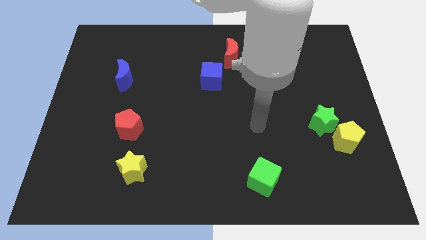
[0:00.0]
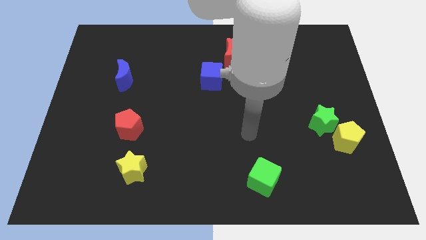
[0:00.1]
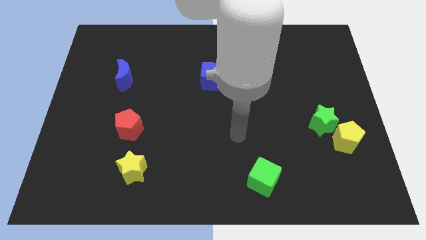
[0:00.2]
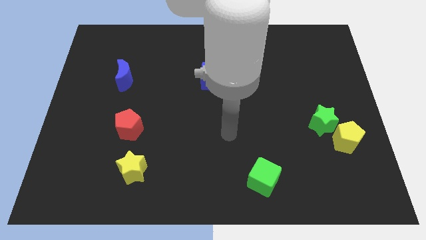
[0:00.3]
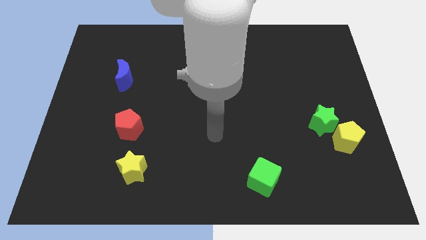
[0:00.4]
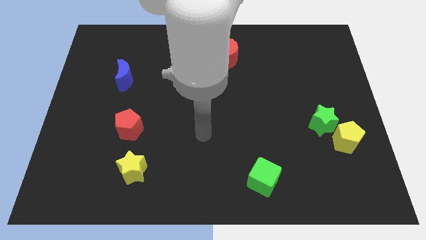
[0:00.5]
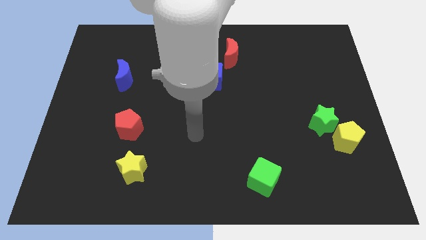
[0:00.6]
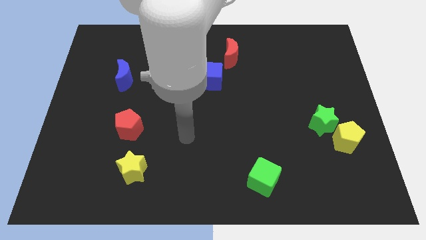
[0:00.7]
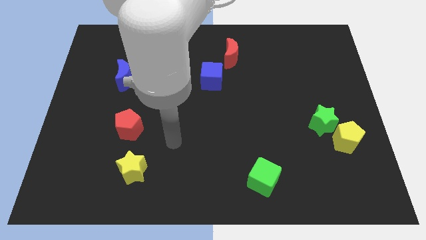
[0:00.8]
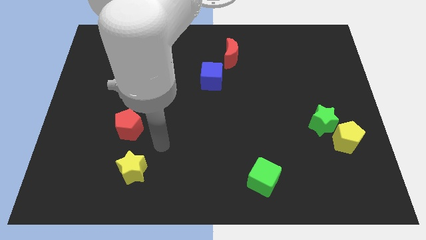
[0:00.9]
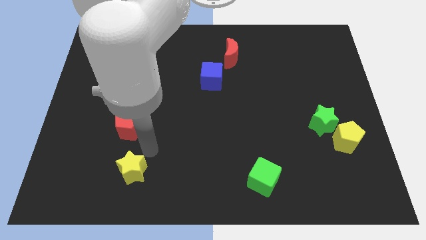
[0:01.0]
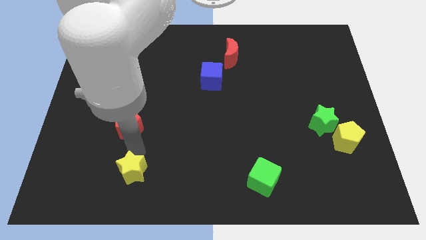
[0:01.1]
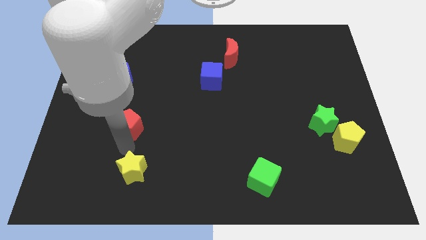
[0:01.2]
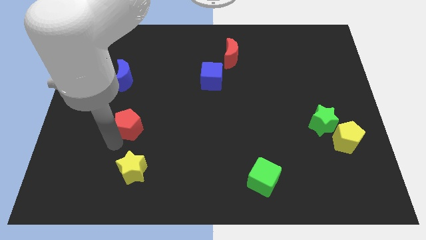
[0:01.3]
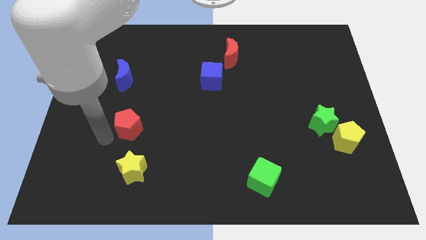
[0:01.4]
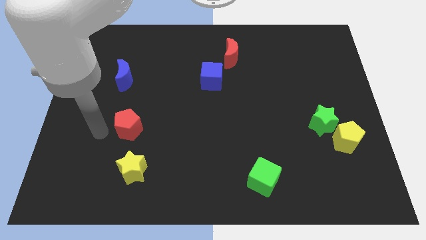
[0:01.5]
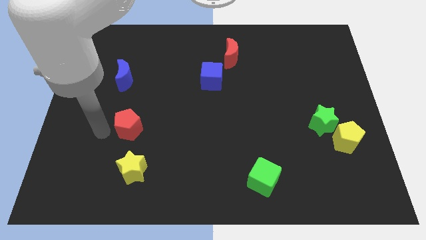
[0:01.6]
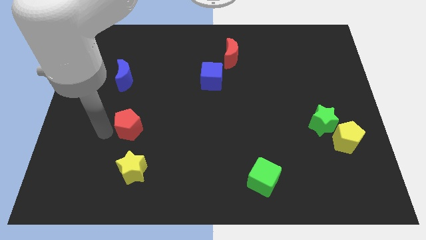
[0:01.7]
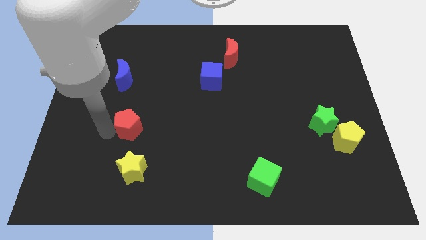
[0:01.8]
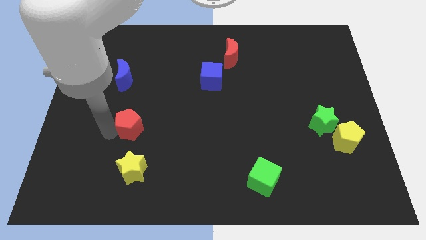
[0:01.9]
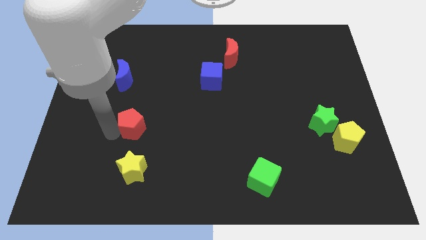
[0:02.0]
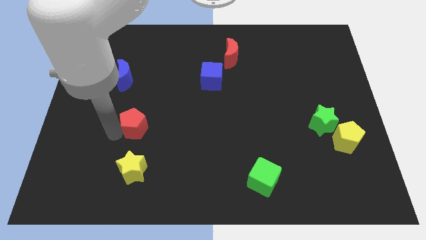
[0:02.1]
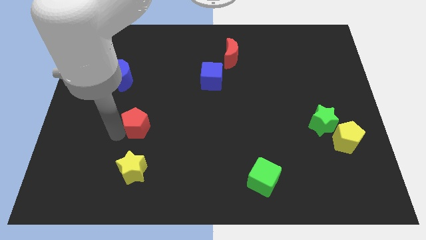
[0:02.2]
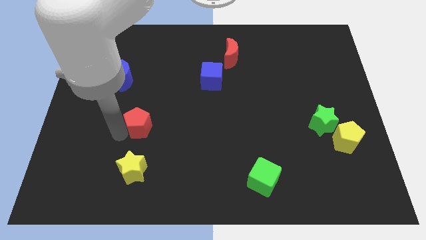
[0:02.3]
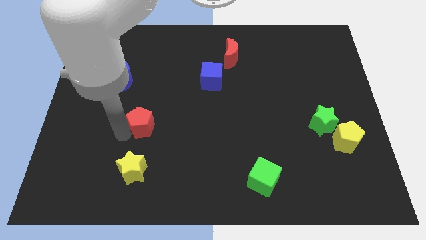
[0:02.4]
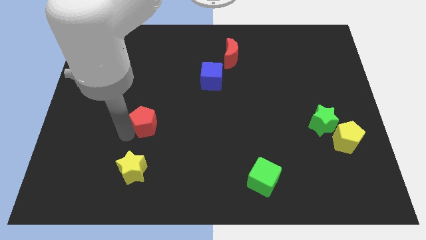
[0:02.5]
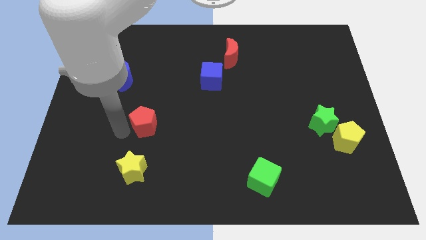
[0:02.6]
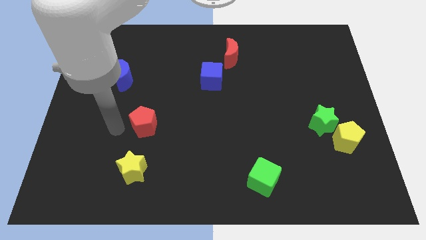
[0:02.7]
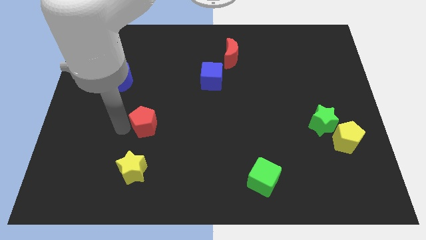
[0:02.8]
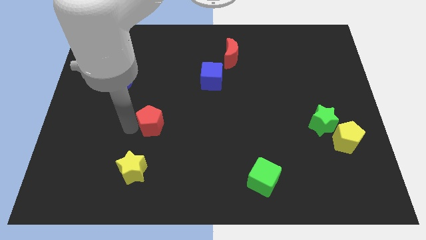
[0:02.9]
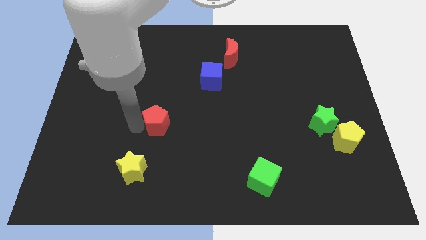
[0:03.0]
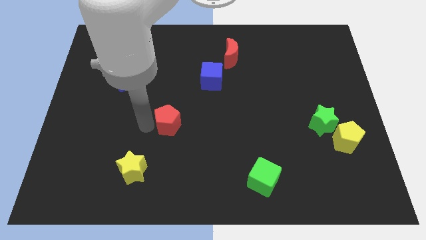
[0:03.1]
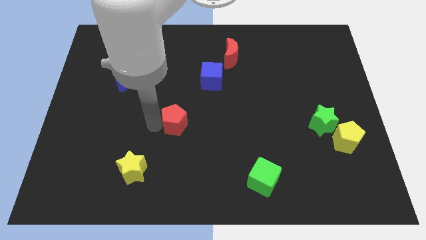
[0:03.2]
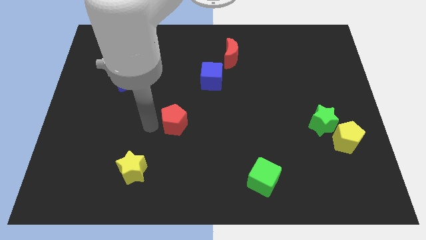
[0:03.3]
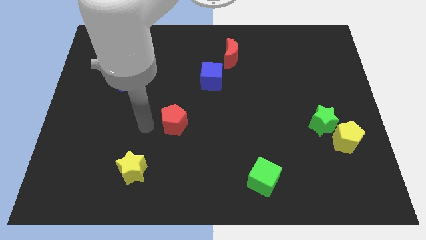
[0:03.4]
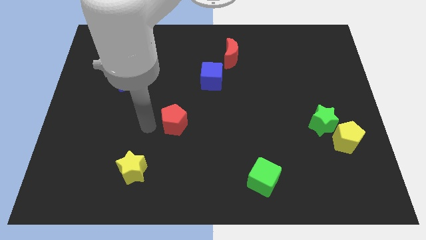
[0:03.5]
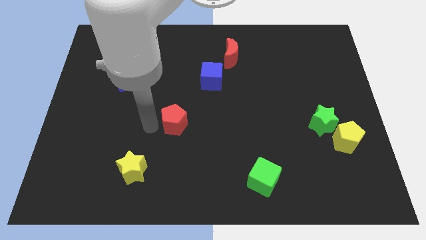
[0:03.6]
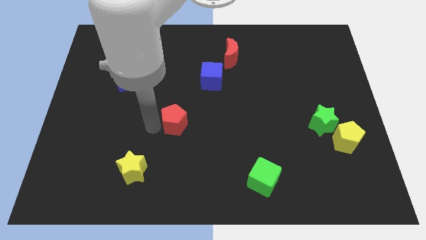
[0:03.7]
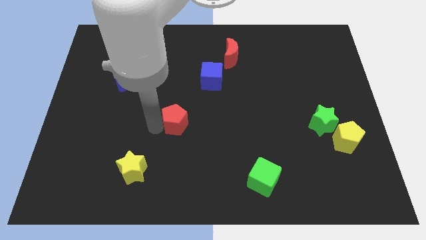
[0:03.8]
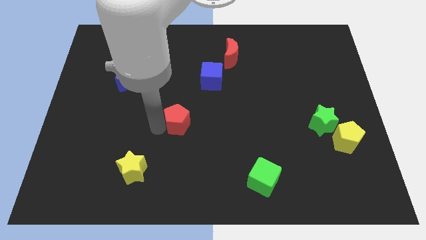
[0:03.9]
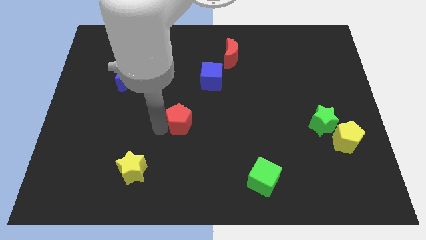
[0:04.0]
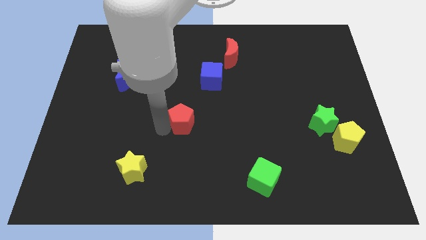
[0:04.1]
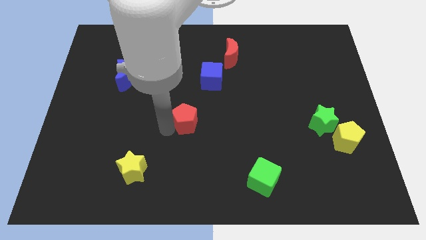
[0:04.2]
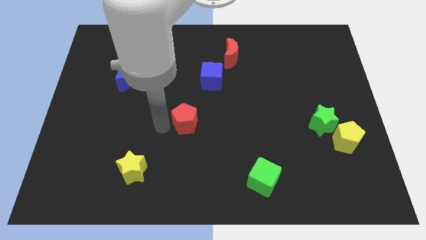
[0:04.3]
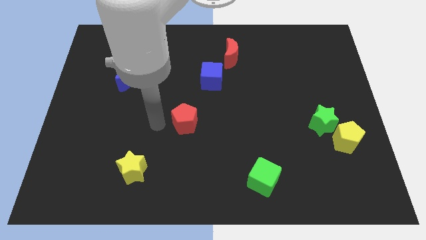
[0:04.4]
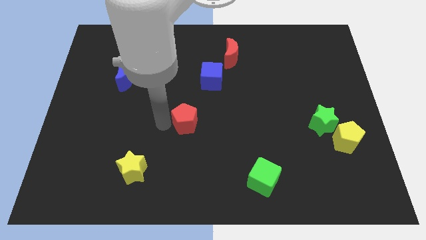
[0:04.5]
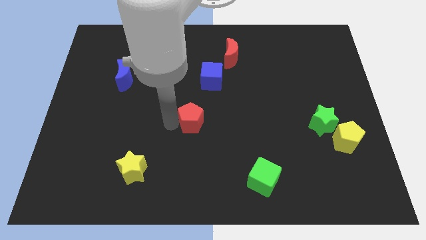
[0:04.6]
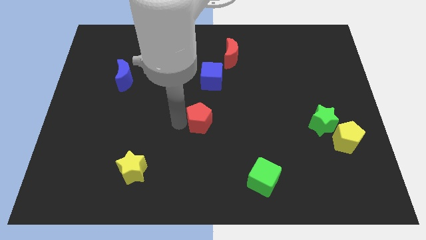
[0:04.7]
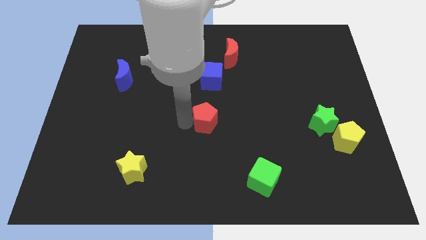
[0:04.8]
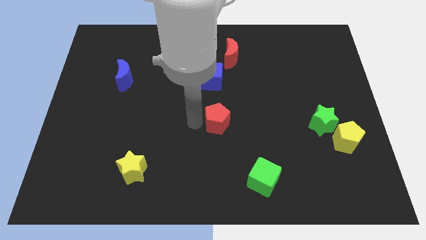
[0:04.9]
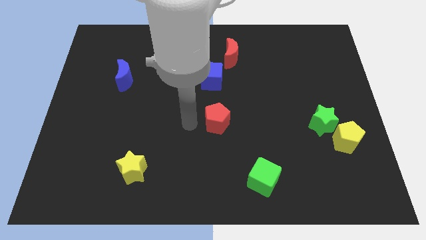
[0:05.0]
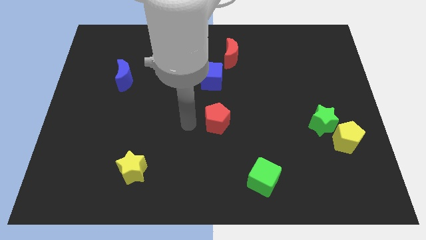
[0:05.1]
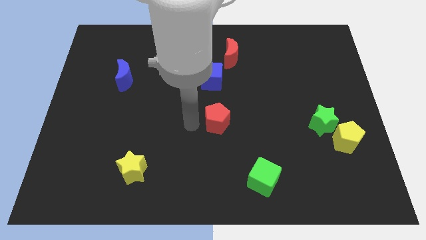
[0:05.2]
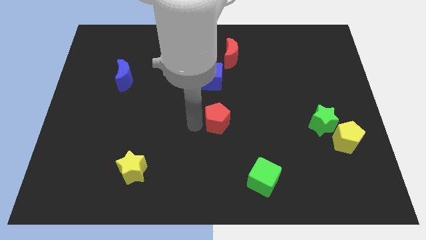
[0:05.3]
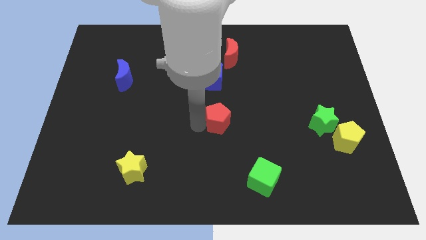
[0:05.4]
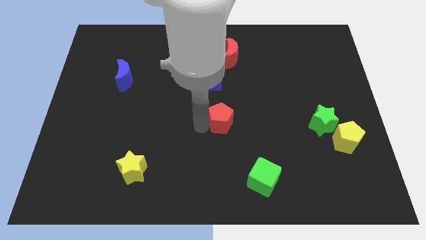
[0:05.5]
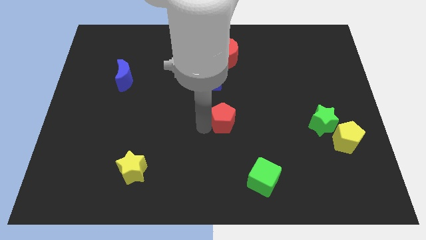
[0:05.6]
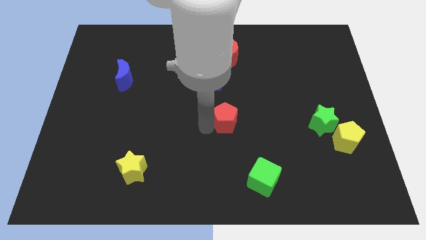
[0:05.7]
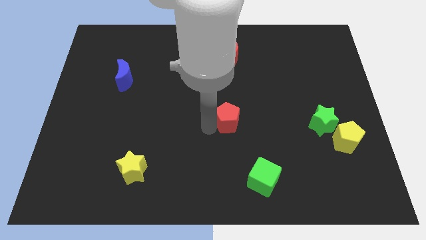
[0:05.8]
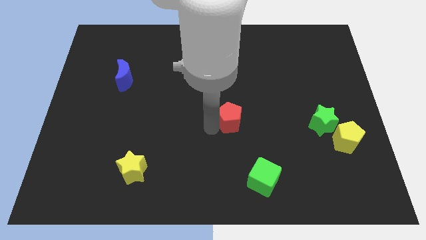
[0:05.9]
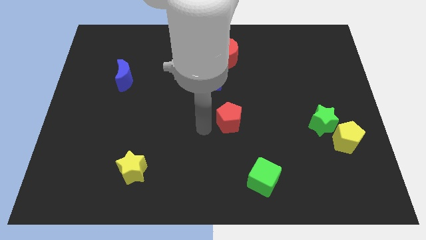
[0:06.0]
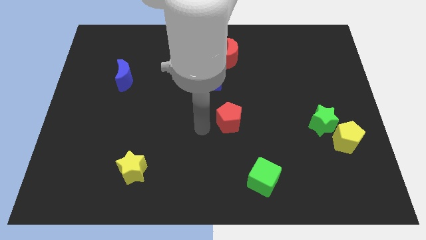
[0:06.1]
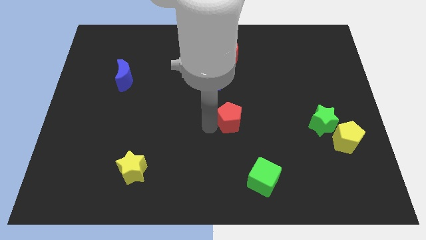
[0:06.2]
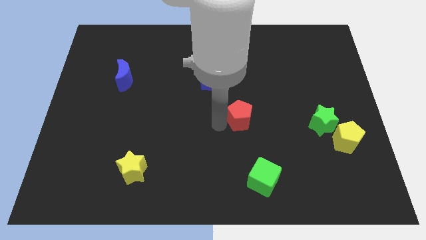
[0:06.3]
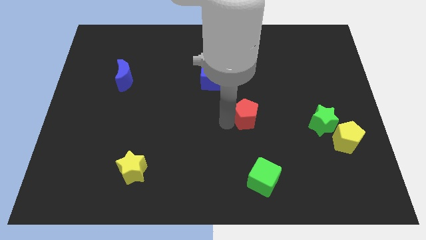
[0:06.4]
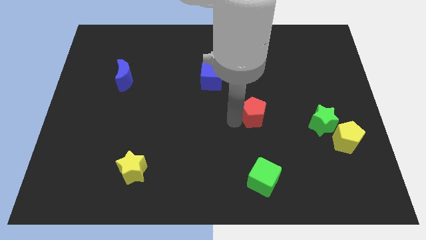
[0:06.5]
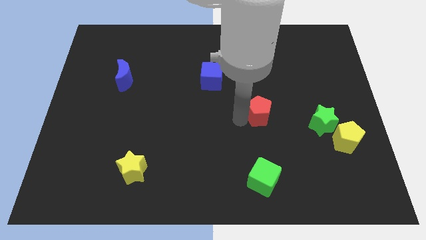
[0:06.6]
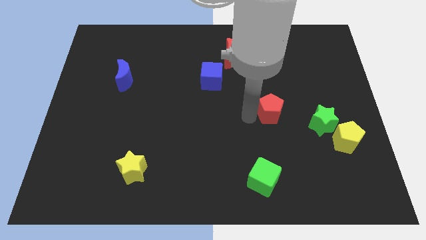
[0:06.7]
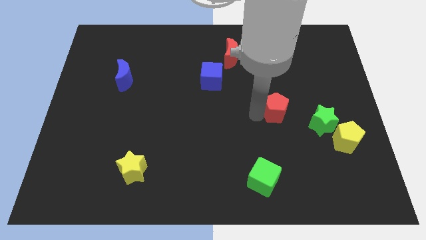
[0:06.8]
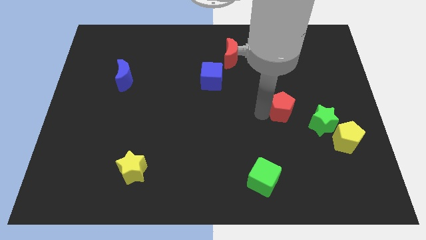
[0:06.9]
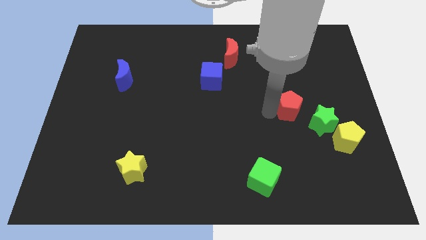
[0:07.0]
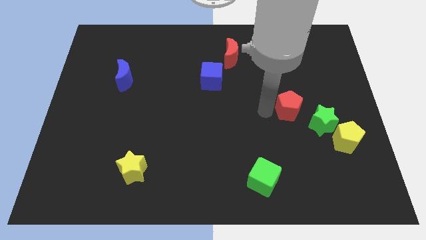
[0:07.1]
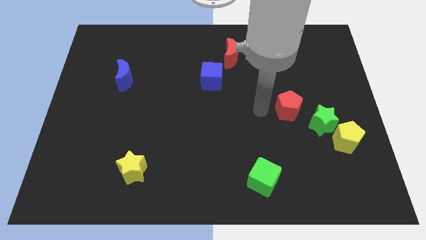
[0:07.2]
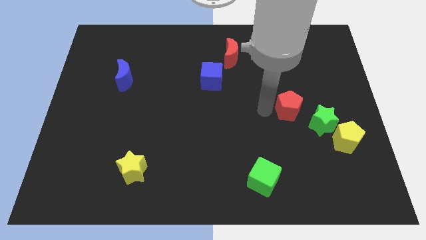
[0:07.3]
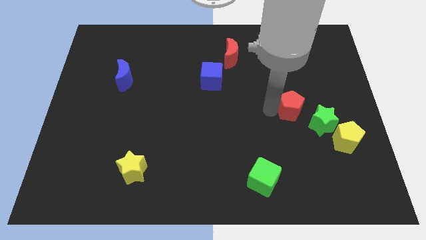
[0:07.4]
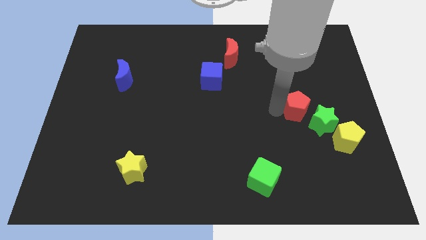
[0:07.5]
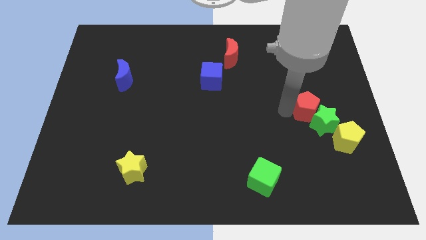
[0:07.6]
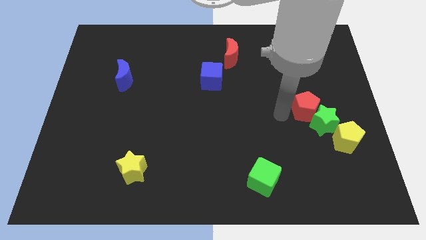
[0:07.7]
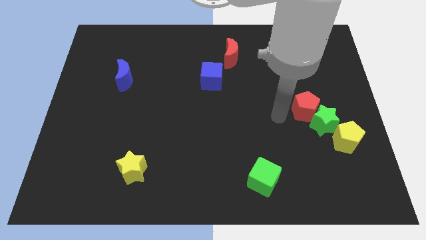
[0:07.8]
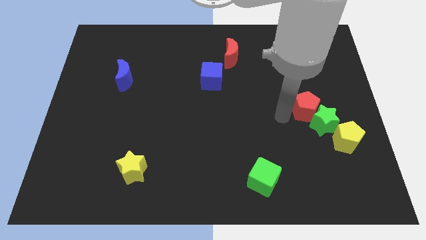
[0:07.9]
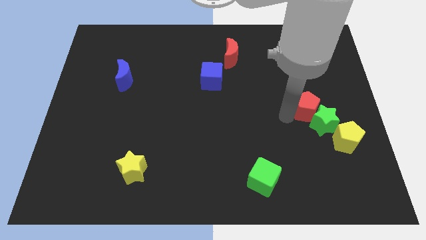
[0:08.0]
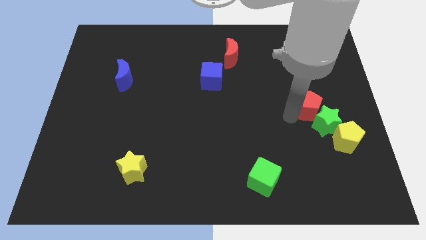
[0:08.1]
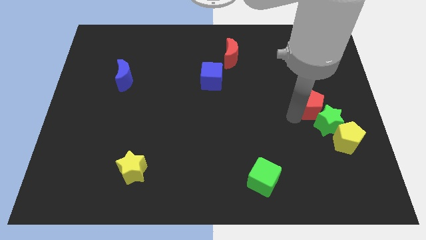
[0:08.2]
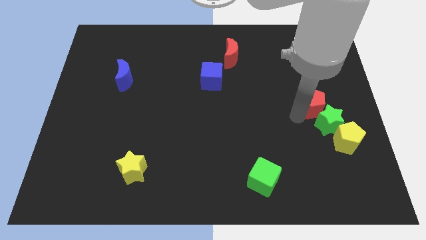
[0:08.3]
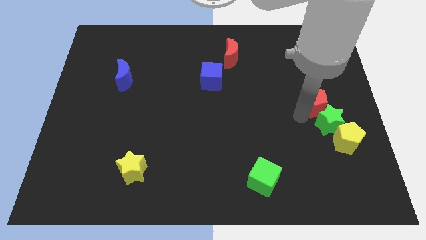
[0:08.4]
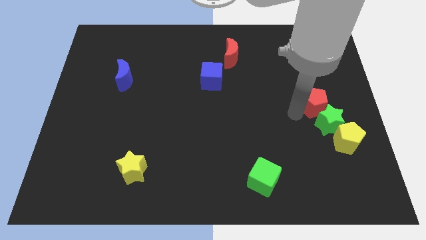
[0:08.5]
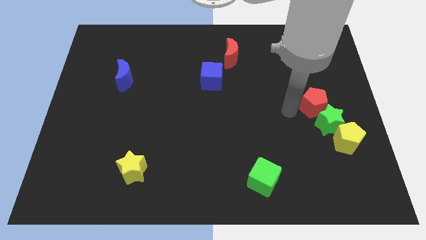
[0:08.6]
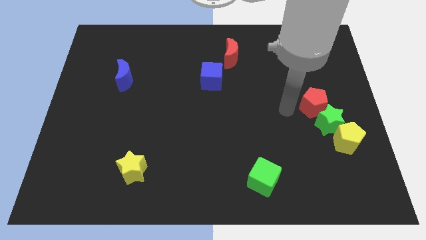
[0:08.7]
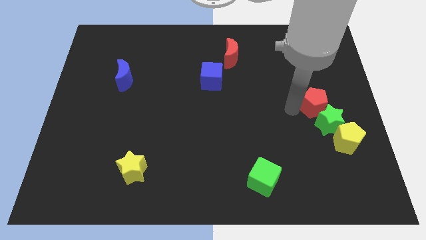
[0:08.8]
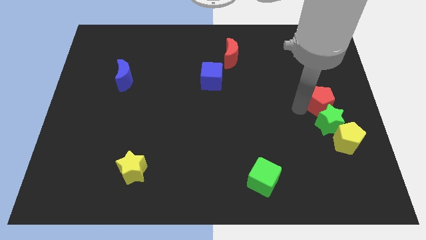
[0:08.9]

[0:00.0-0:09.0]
move the red pentagon to the top side of the yellow pentagon
